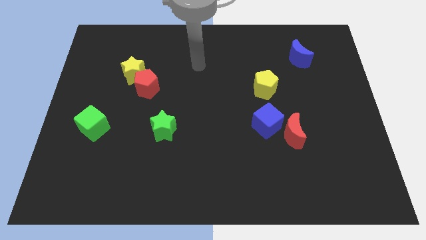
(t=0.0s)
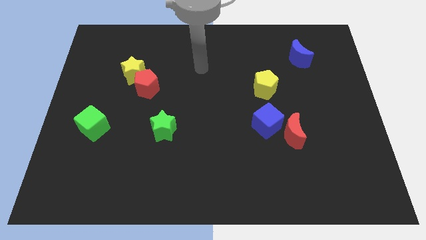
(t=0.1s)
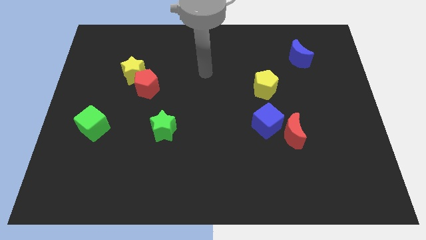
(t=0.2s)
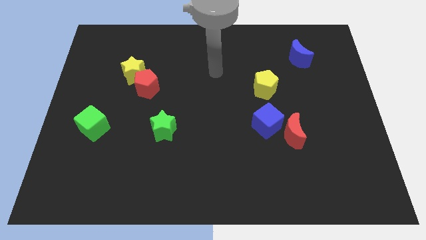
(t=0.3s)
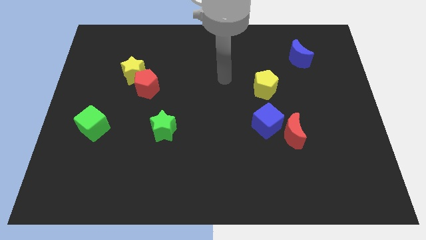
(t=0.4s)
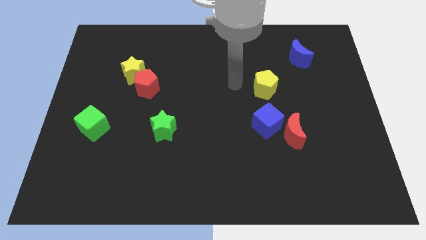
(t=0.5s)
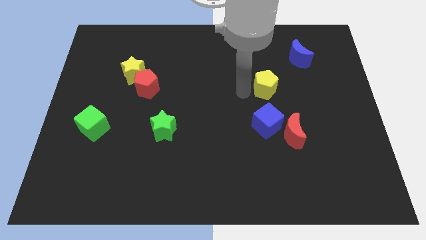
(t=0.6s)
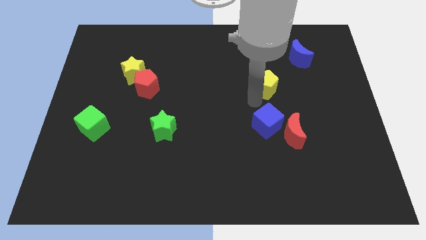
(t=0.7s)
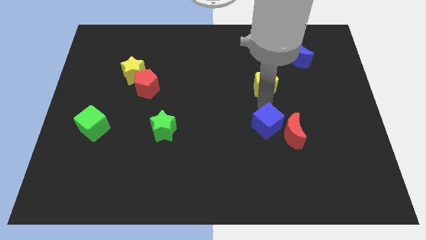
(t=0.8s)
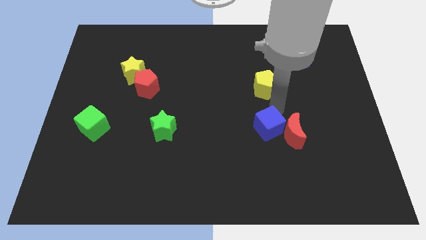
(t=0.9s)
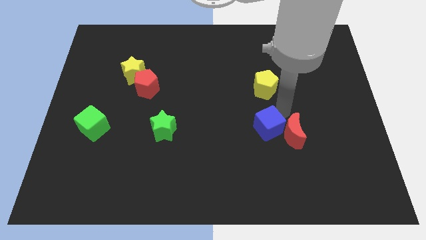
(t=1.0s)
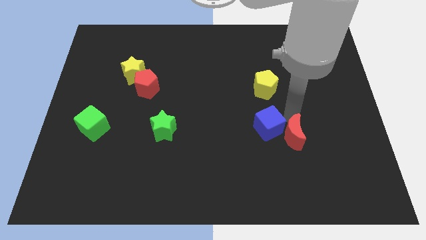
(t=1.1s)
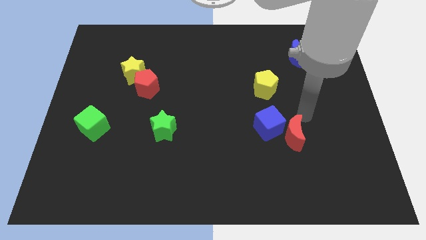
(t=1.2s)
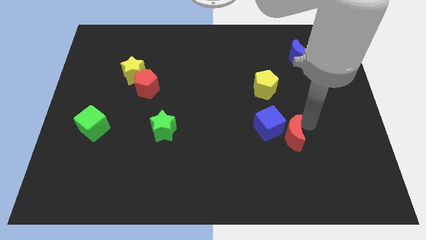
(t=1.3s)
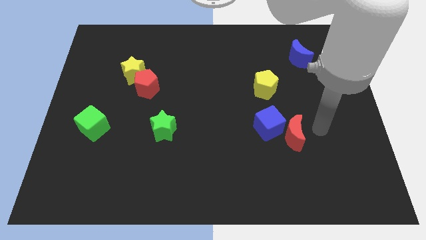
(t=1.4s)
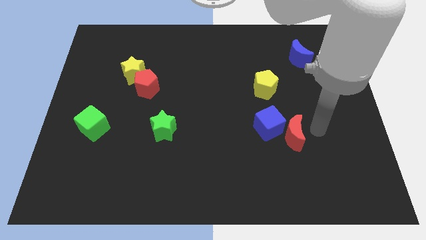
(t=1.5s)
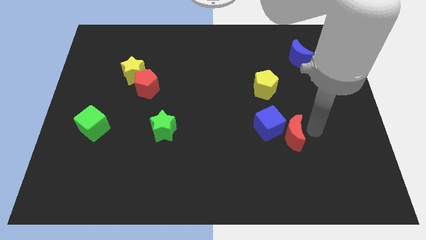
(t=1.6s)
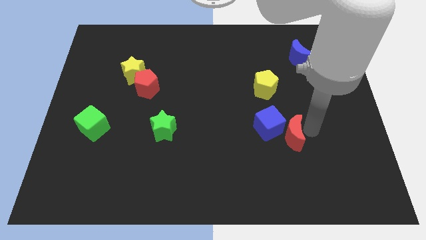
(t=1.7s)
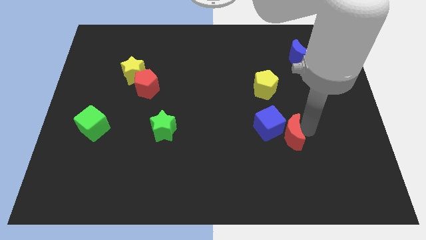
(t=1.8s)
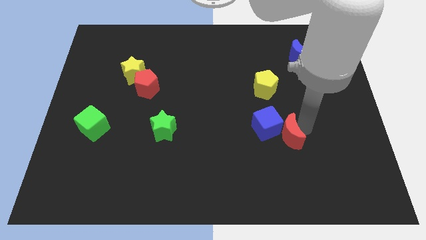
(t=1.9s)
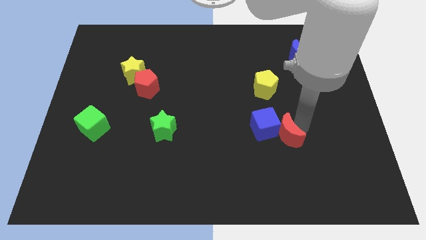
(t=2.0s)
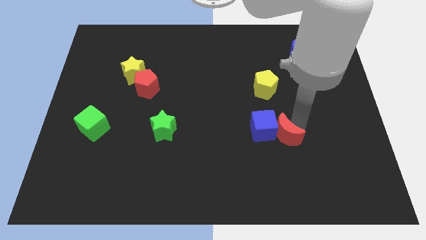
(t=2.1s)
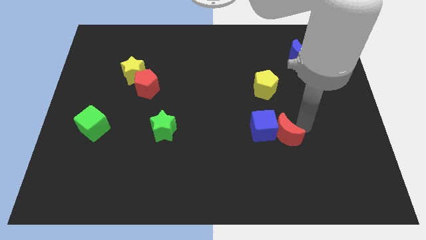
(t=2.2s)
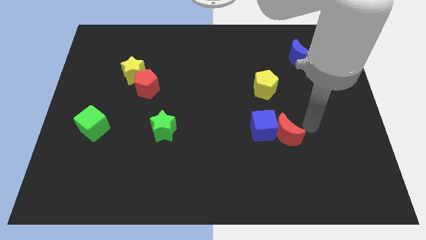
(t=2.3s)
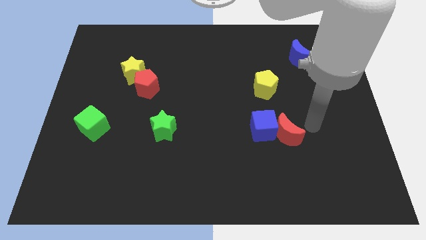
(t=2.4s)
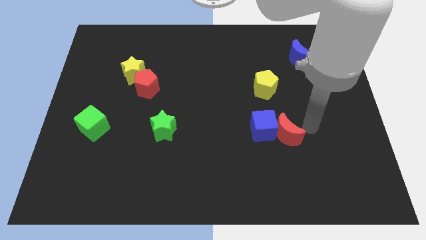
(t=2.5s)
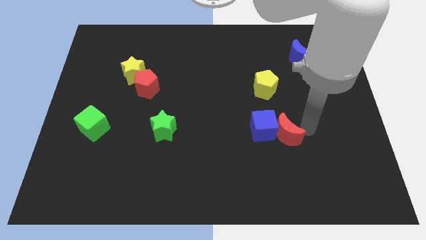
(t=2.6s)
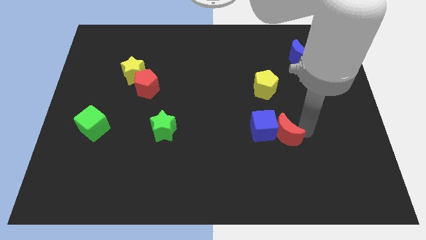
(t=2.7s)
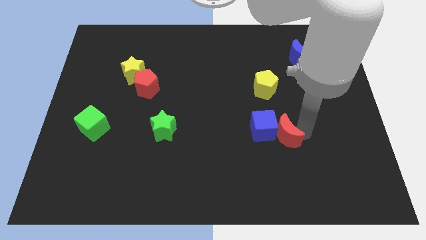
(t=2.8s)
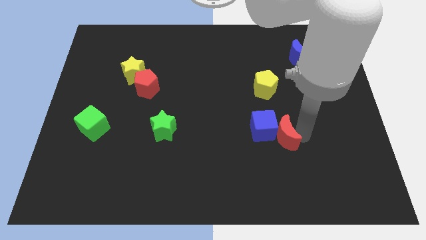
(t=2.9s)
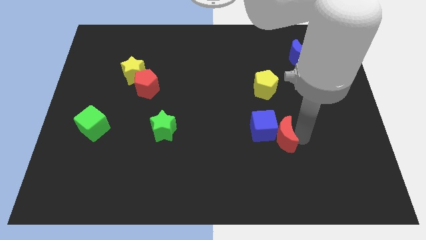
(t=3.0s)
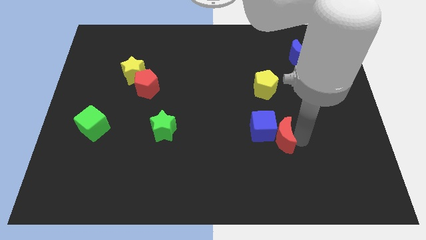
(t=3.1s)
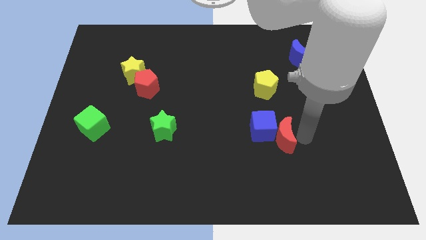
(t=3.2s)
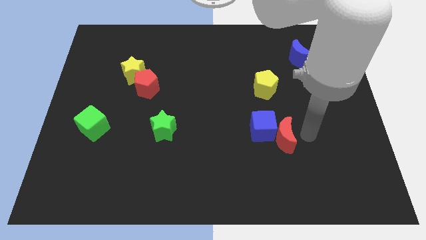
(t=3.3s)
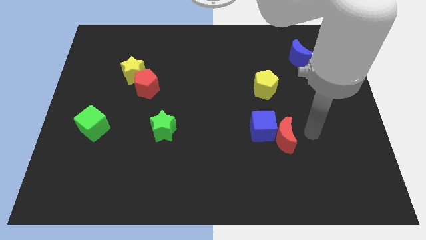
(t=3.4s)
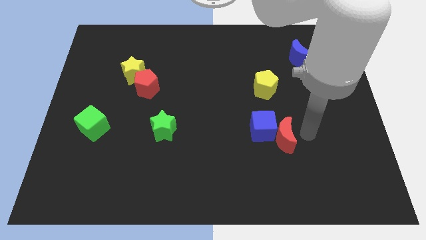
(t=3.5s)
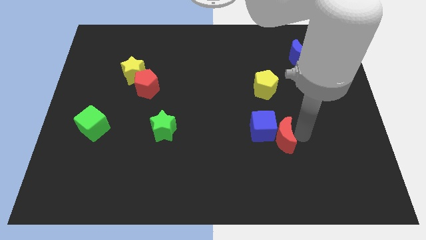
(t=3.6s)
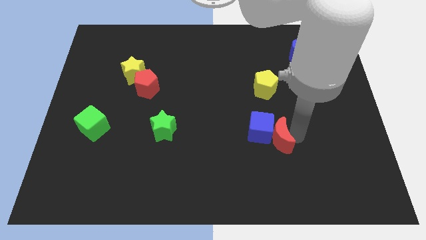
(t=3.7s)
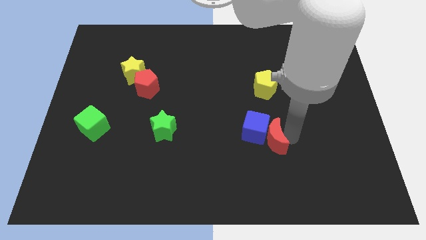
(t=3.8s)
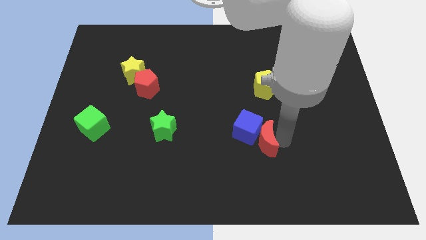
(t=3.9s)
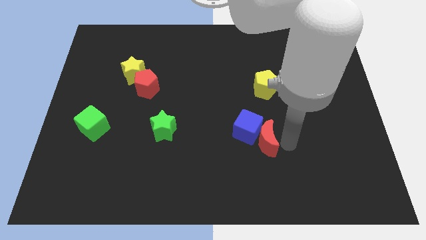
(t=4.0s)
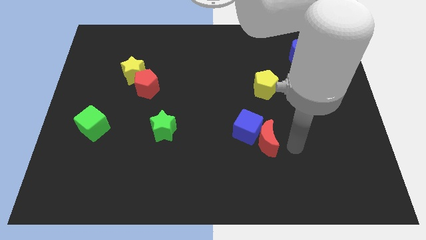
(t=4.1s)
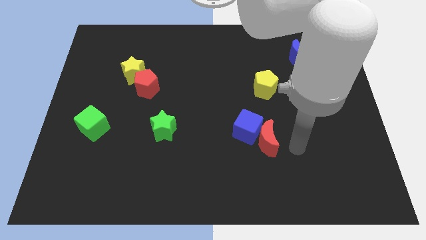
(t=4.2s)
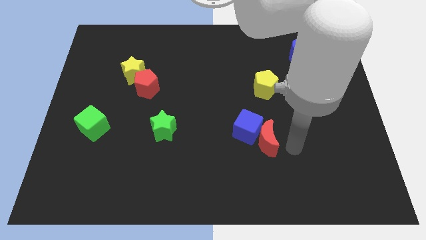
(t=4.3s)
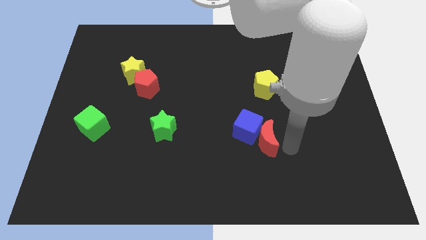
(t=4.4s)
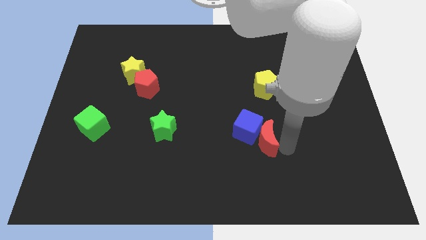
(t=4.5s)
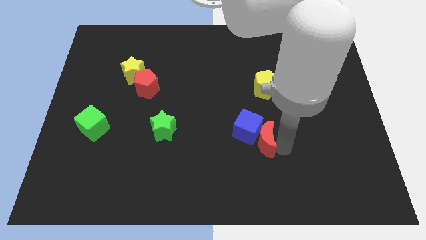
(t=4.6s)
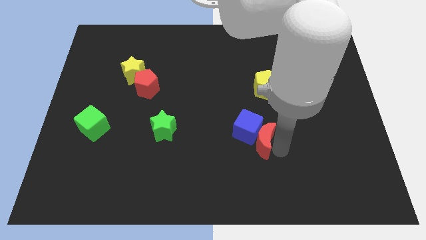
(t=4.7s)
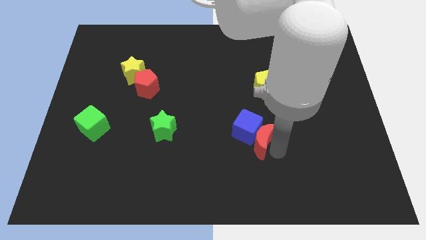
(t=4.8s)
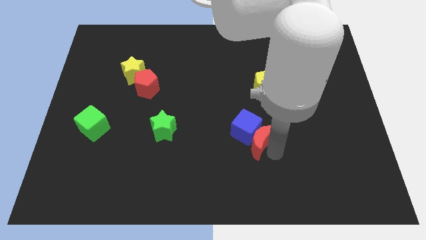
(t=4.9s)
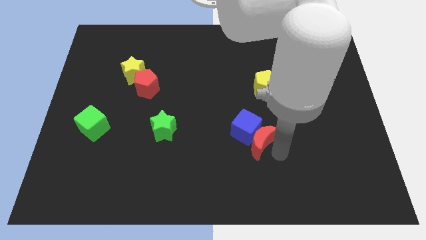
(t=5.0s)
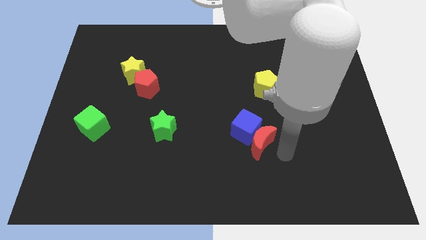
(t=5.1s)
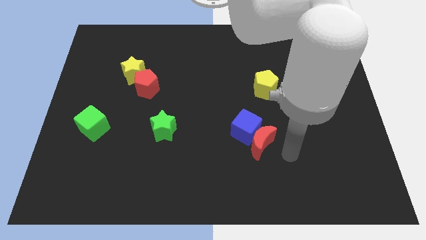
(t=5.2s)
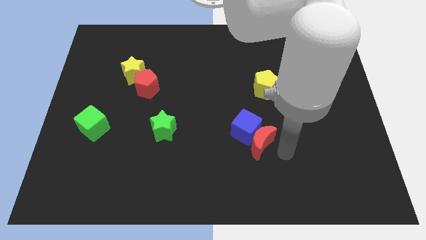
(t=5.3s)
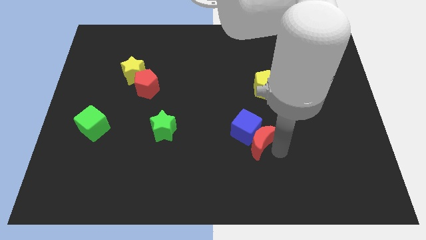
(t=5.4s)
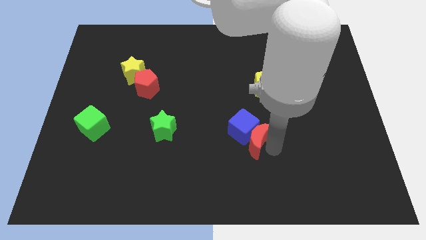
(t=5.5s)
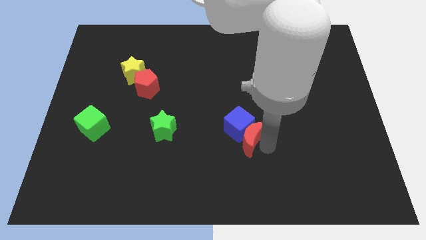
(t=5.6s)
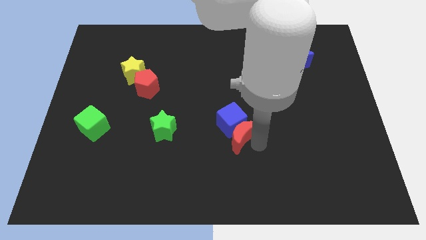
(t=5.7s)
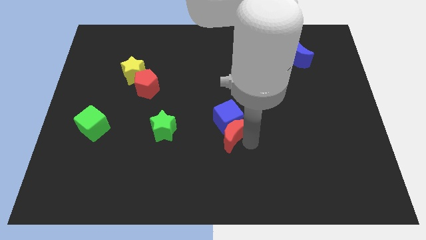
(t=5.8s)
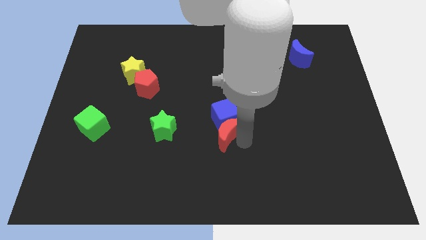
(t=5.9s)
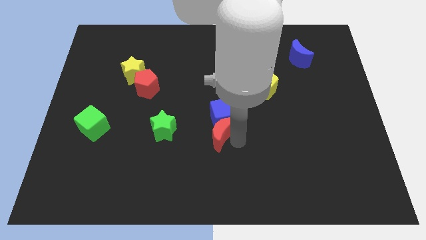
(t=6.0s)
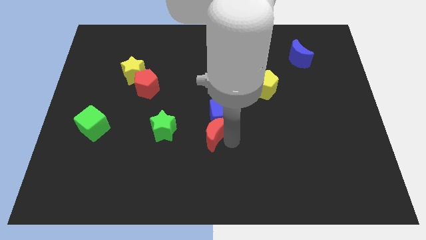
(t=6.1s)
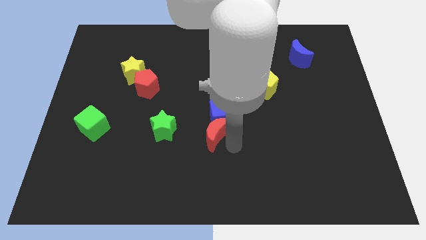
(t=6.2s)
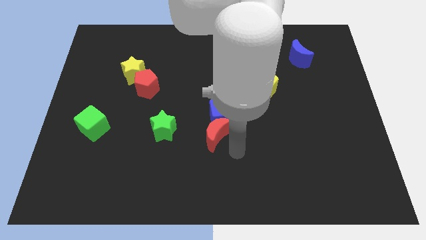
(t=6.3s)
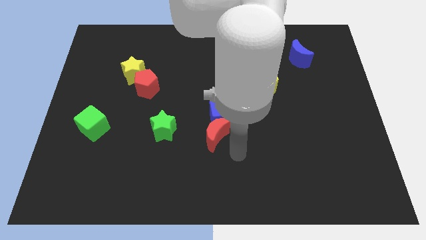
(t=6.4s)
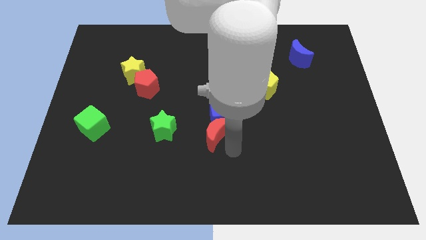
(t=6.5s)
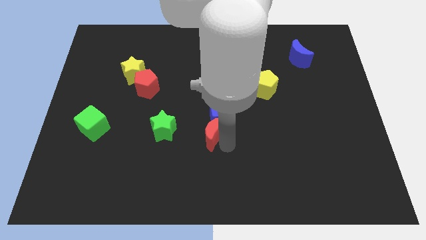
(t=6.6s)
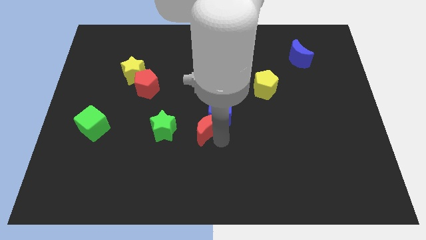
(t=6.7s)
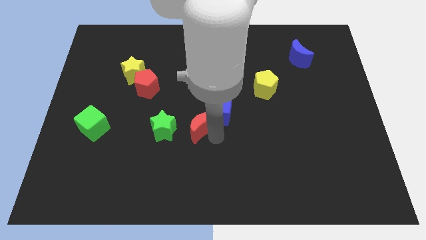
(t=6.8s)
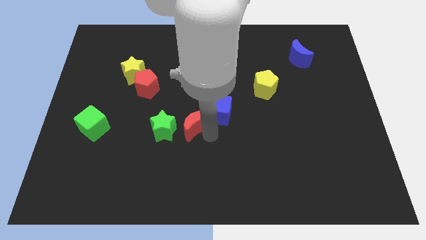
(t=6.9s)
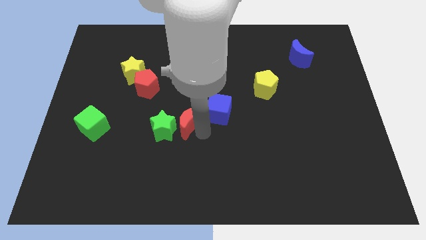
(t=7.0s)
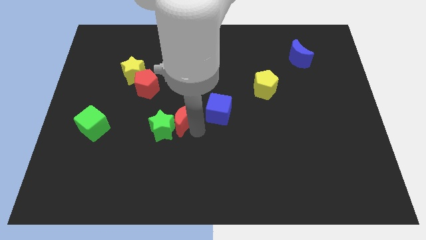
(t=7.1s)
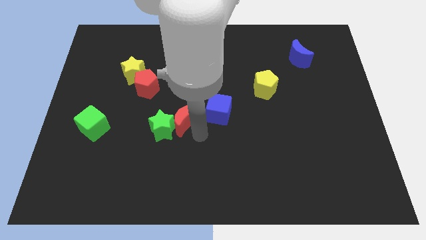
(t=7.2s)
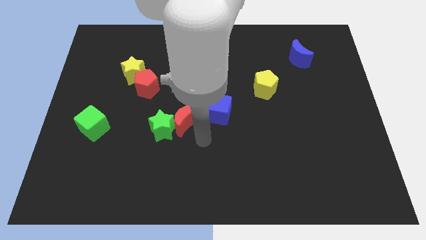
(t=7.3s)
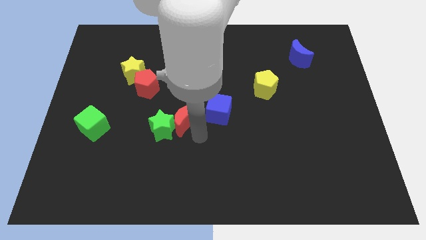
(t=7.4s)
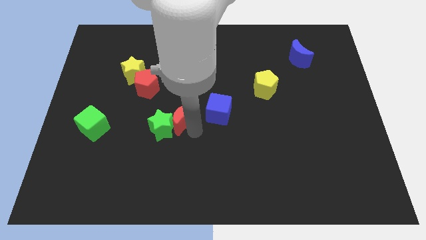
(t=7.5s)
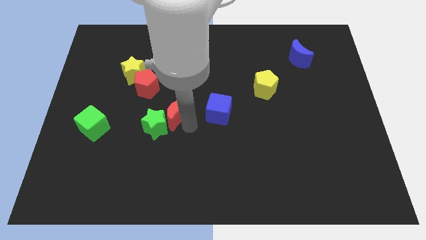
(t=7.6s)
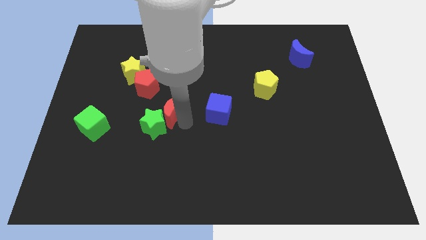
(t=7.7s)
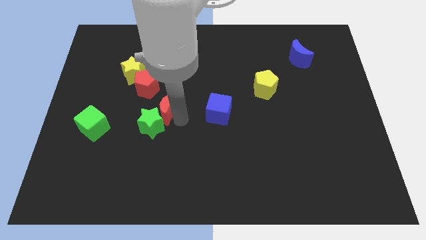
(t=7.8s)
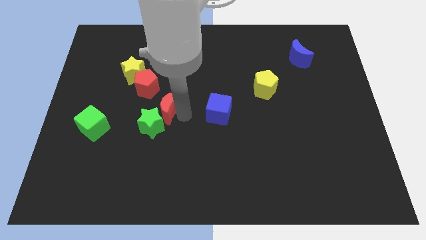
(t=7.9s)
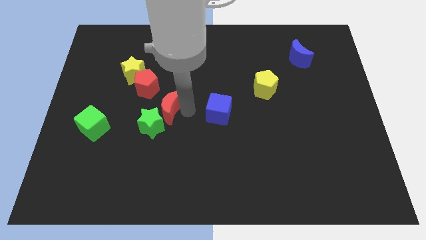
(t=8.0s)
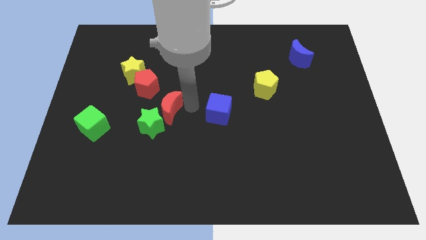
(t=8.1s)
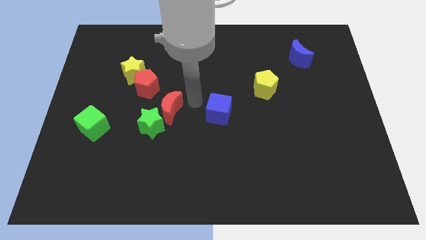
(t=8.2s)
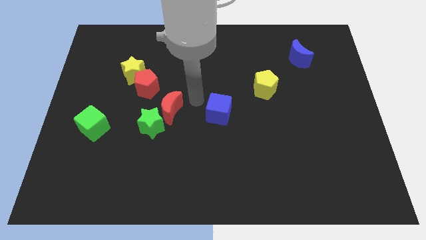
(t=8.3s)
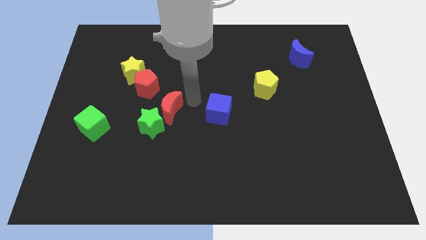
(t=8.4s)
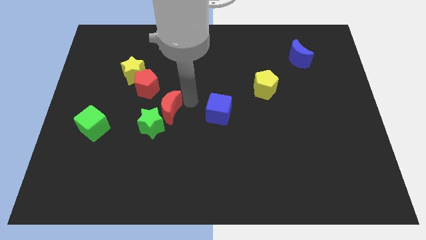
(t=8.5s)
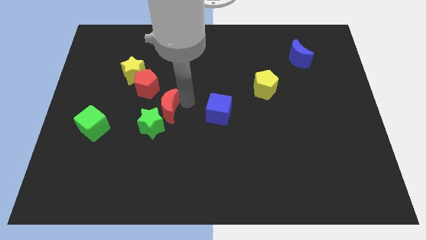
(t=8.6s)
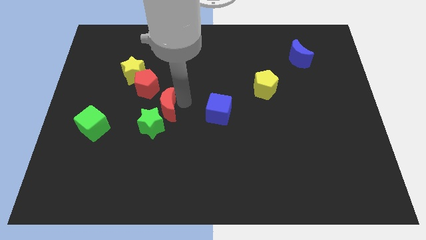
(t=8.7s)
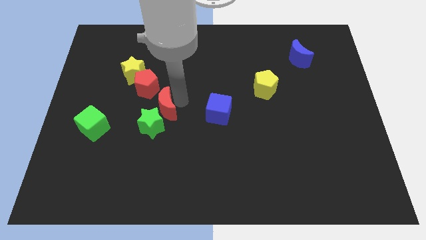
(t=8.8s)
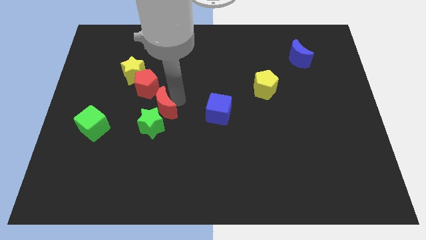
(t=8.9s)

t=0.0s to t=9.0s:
move the red moon to the bottom of the red pentagon
